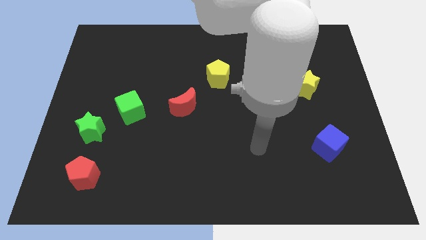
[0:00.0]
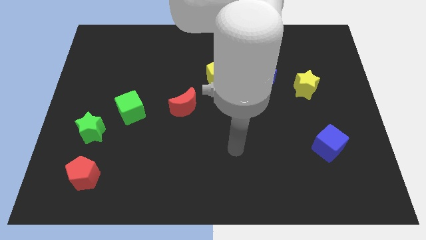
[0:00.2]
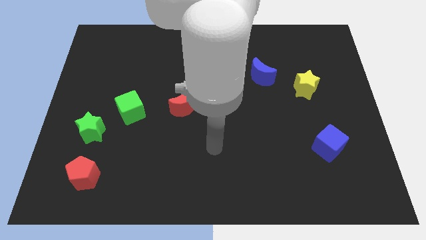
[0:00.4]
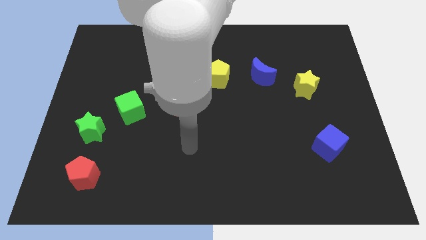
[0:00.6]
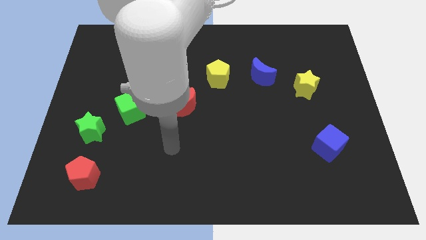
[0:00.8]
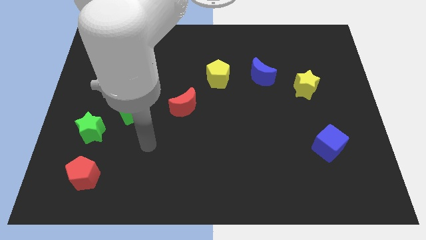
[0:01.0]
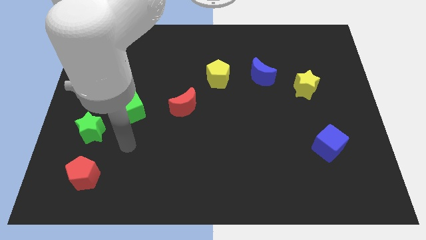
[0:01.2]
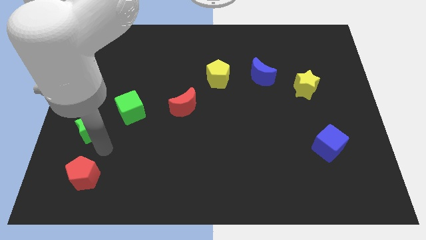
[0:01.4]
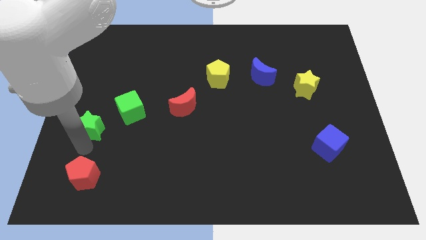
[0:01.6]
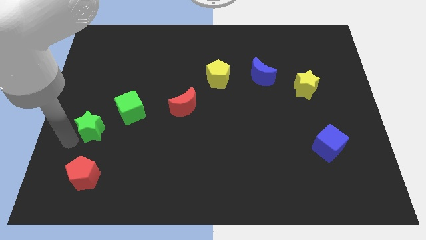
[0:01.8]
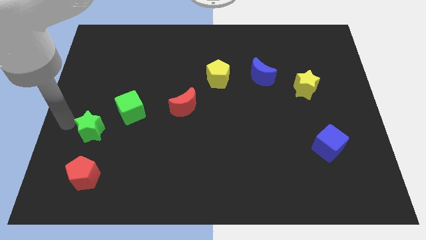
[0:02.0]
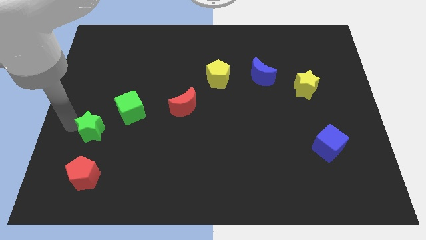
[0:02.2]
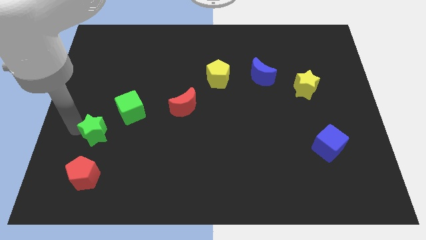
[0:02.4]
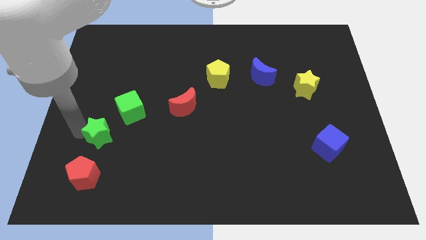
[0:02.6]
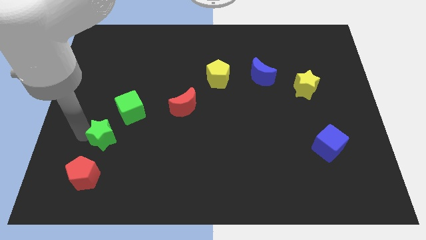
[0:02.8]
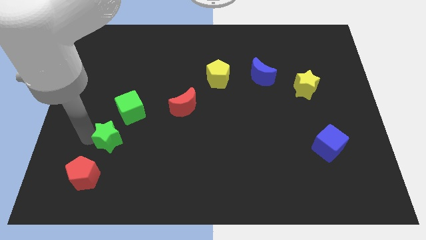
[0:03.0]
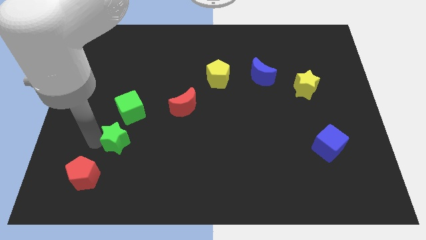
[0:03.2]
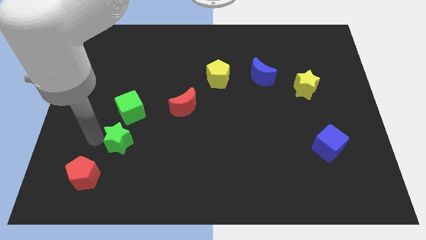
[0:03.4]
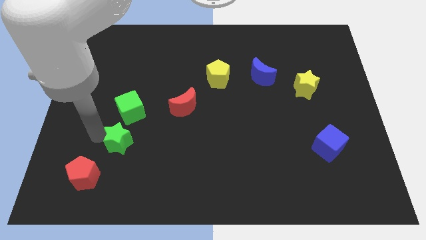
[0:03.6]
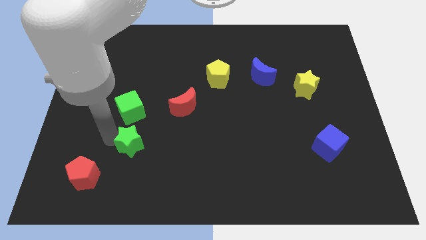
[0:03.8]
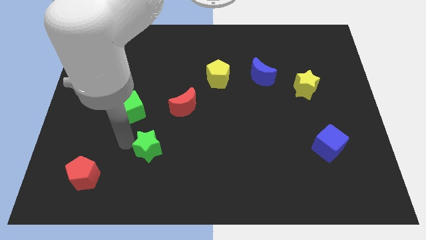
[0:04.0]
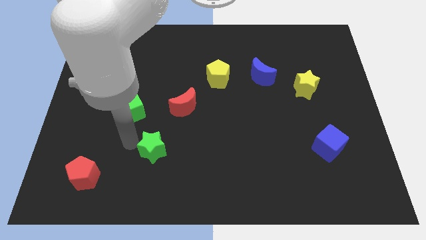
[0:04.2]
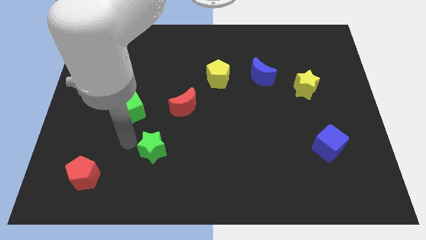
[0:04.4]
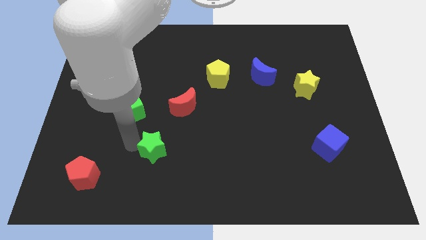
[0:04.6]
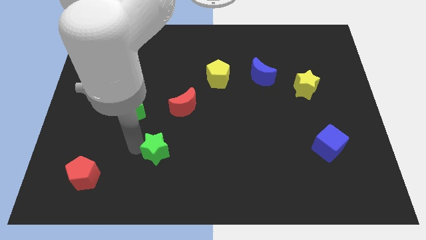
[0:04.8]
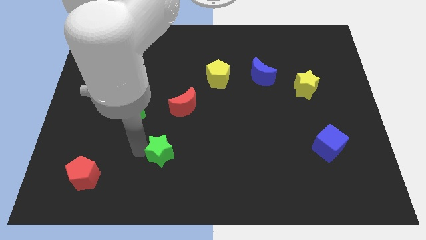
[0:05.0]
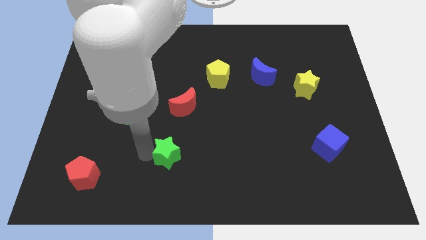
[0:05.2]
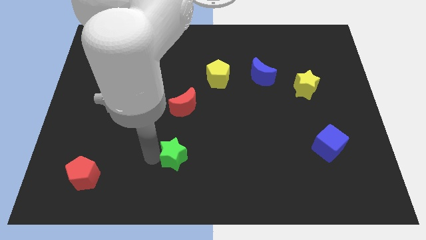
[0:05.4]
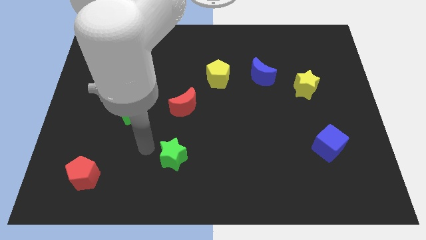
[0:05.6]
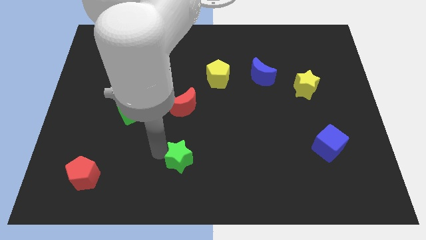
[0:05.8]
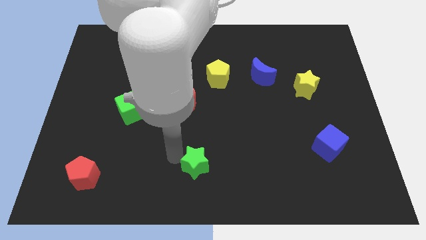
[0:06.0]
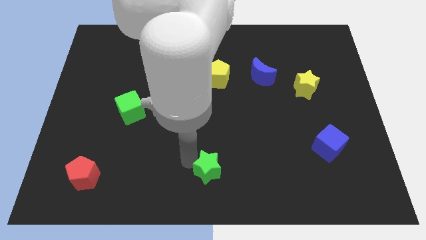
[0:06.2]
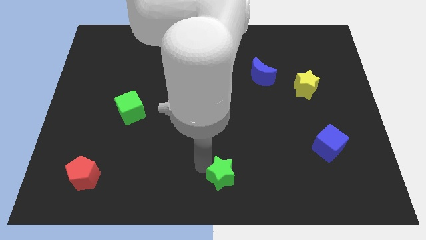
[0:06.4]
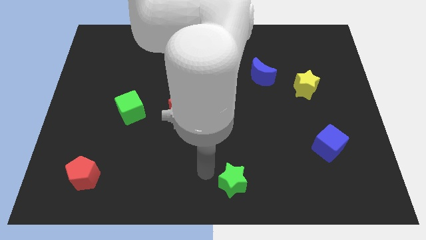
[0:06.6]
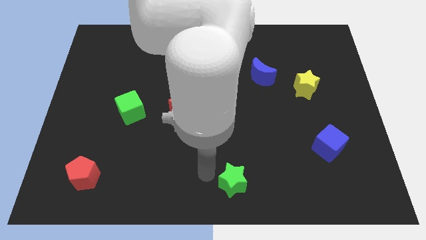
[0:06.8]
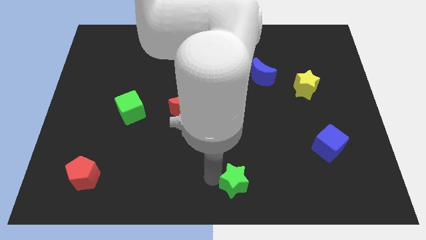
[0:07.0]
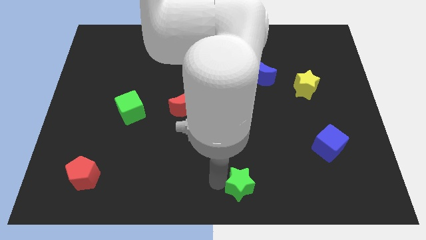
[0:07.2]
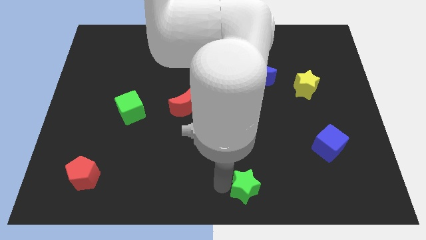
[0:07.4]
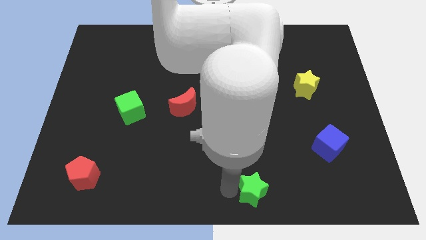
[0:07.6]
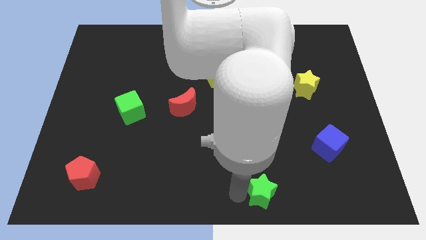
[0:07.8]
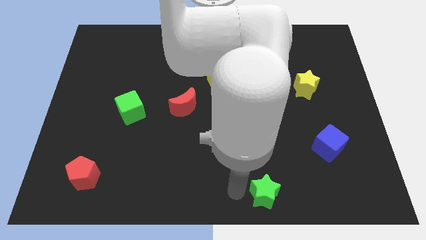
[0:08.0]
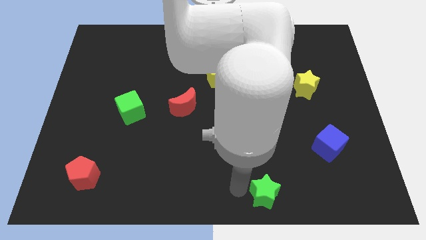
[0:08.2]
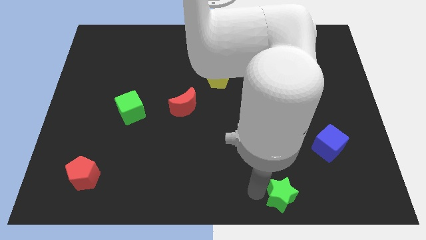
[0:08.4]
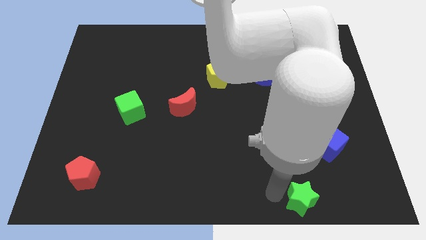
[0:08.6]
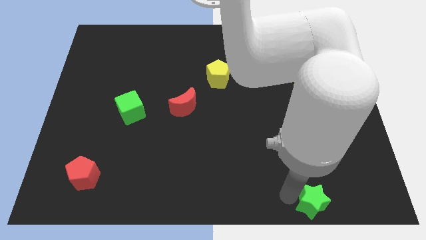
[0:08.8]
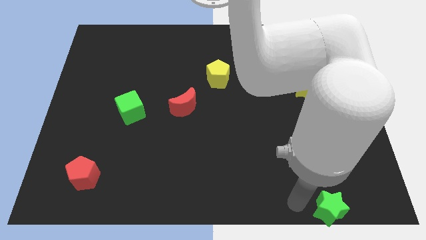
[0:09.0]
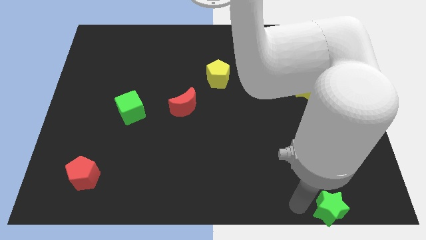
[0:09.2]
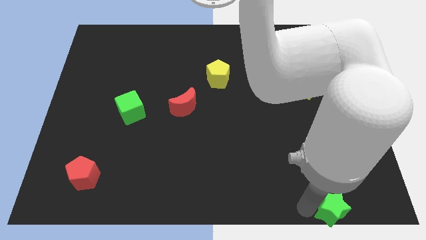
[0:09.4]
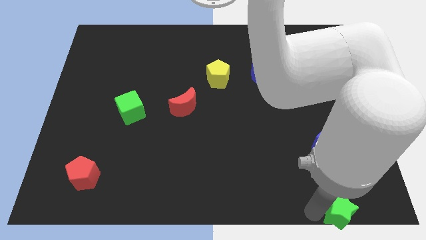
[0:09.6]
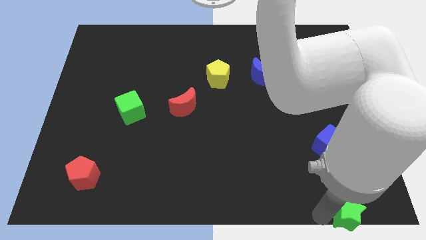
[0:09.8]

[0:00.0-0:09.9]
push the green star to the lower right corner

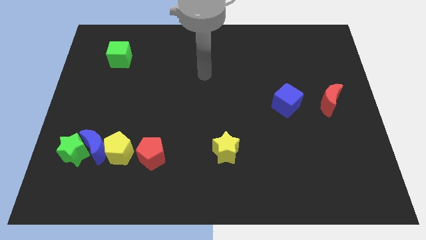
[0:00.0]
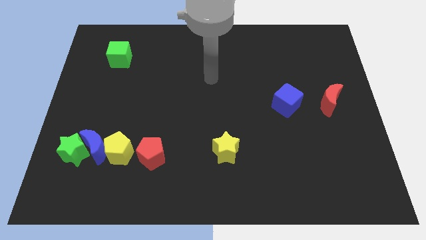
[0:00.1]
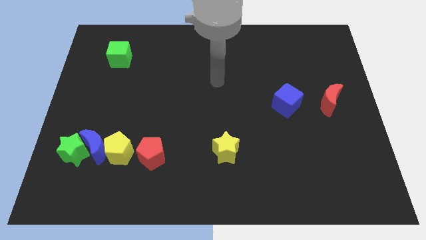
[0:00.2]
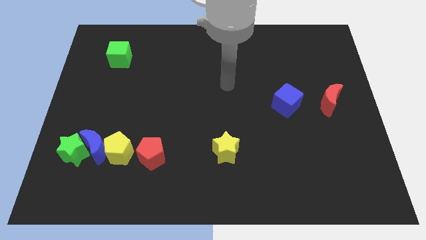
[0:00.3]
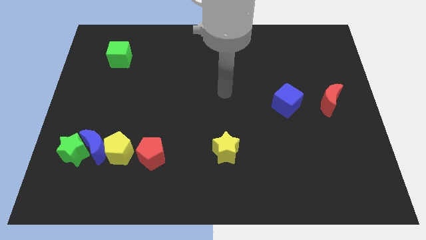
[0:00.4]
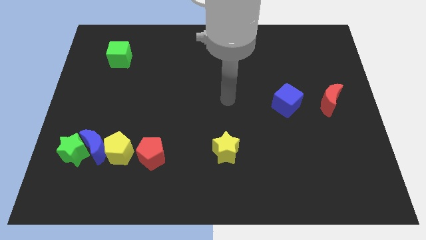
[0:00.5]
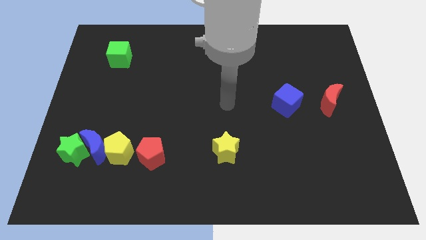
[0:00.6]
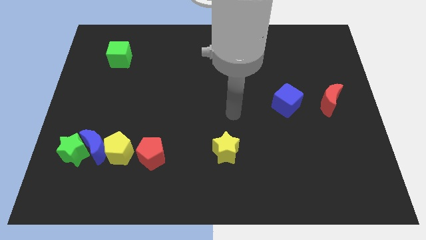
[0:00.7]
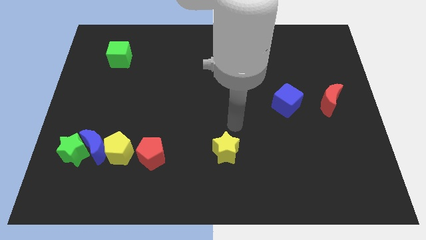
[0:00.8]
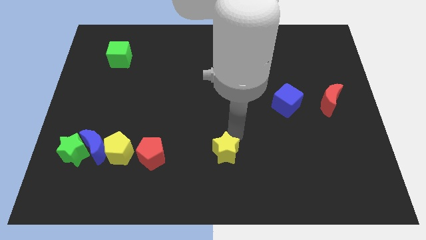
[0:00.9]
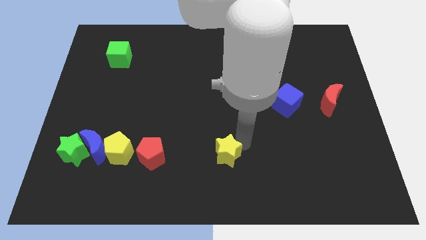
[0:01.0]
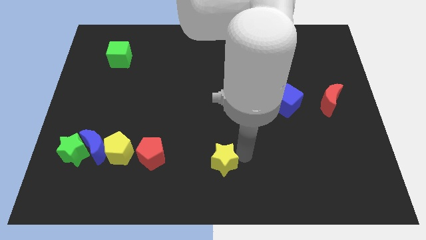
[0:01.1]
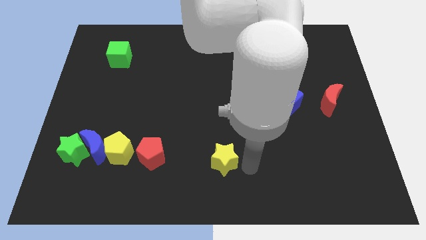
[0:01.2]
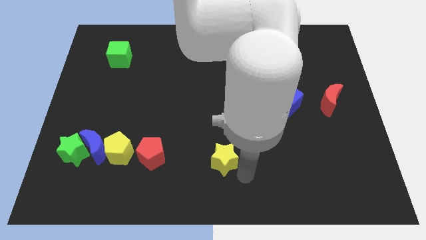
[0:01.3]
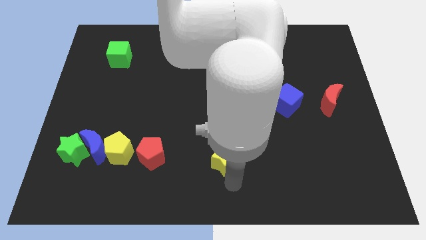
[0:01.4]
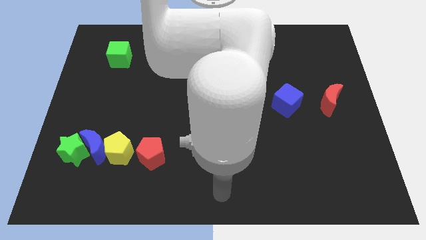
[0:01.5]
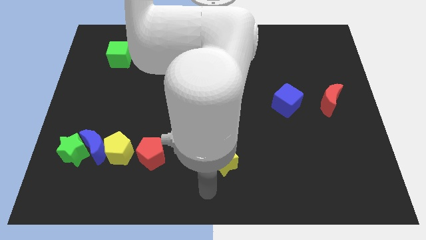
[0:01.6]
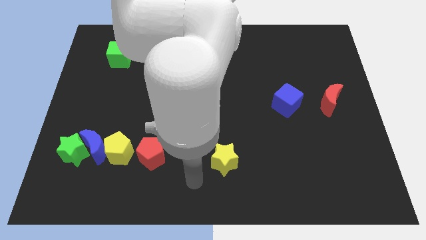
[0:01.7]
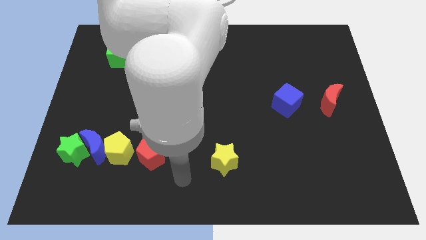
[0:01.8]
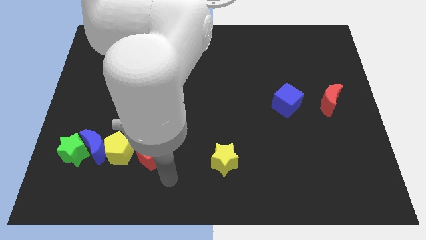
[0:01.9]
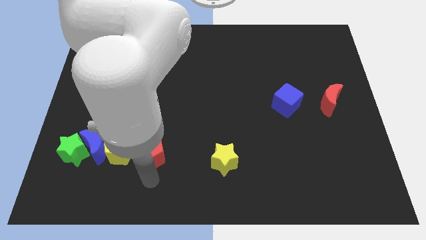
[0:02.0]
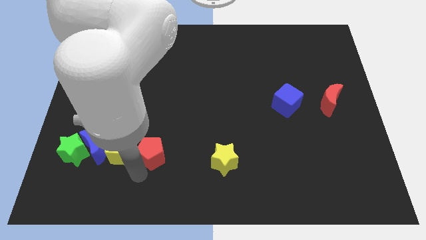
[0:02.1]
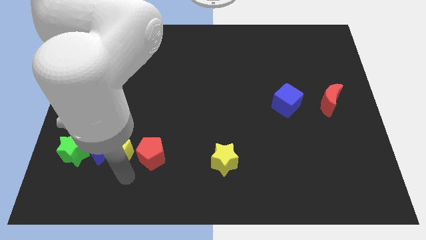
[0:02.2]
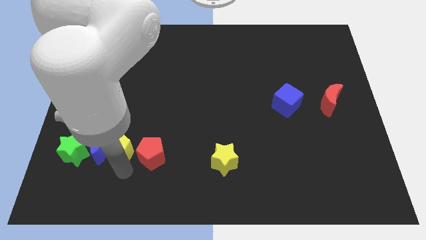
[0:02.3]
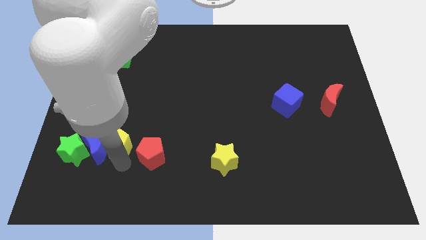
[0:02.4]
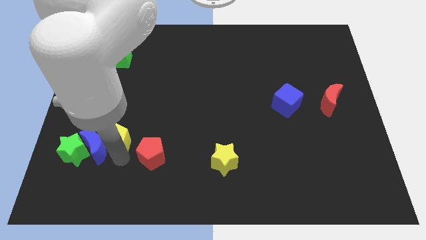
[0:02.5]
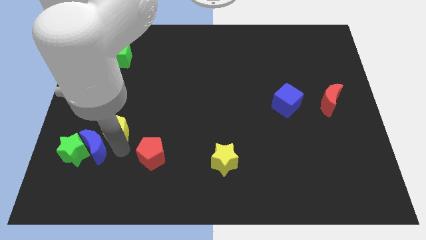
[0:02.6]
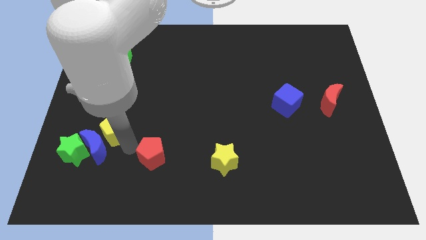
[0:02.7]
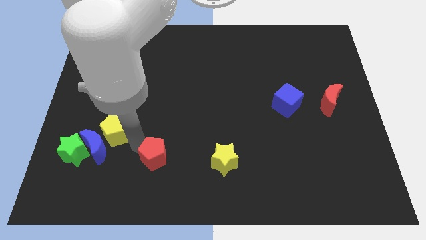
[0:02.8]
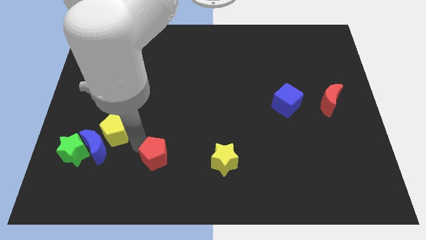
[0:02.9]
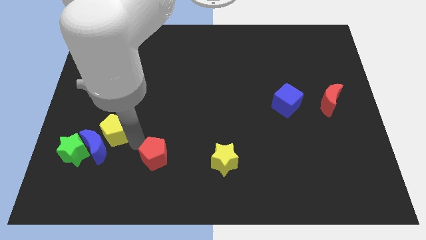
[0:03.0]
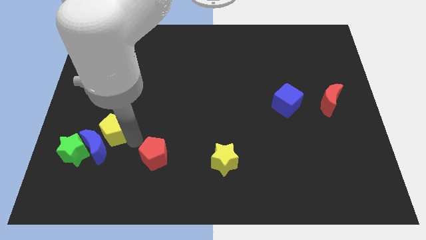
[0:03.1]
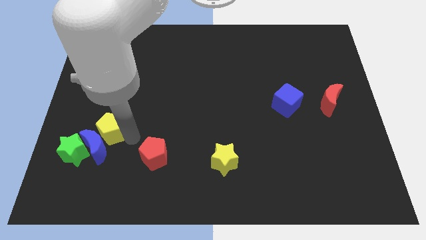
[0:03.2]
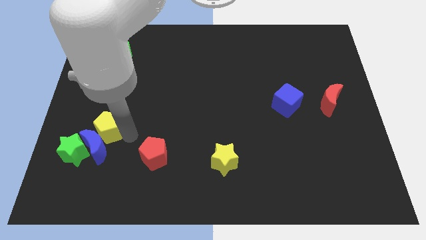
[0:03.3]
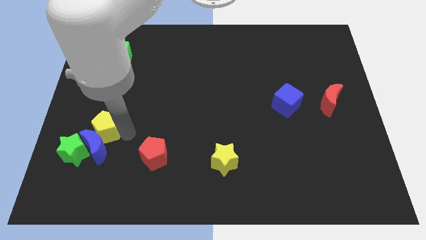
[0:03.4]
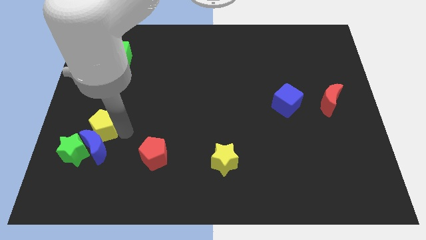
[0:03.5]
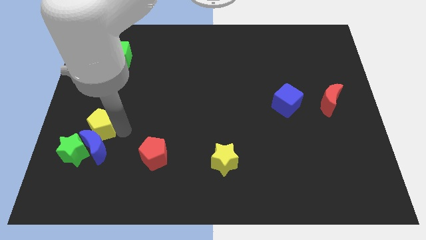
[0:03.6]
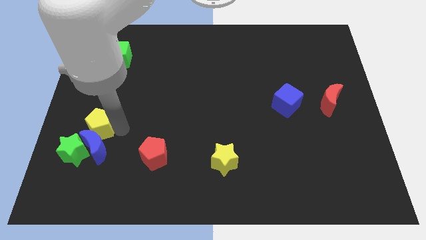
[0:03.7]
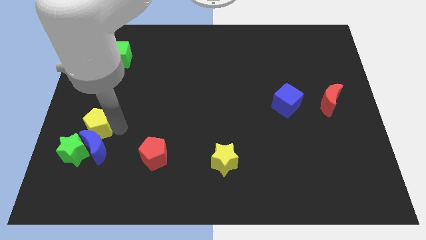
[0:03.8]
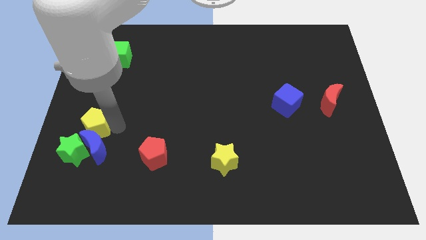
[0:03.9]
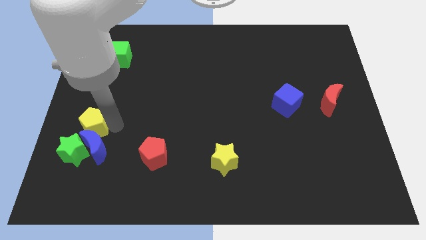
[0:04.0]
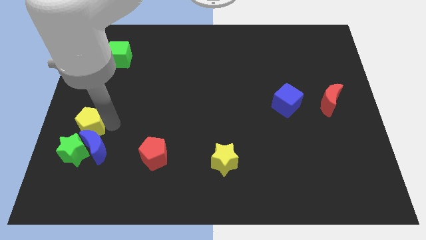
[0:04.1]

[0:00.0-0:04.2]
slide the yellow pentagon to the left side
